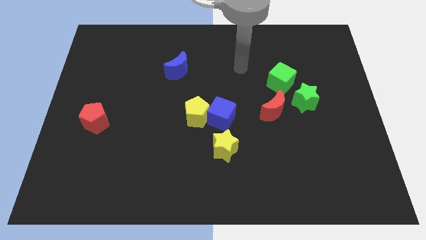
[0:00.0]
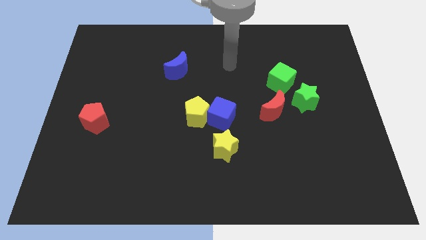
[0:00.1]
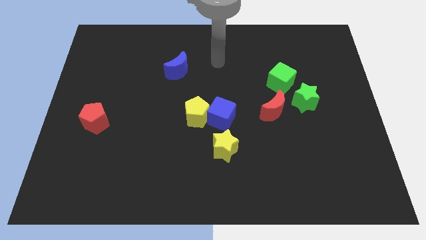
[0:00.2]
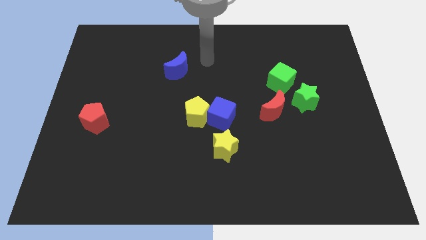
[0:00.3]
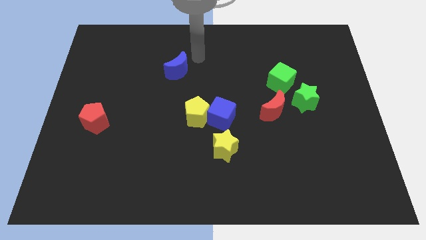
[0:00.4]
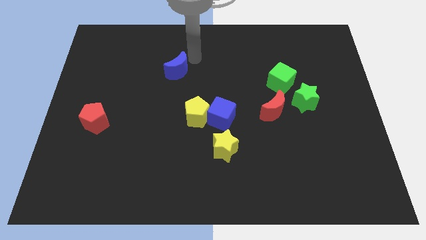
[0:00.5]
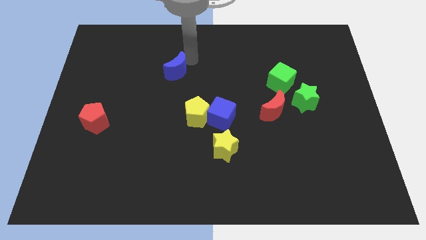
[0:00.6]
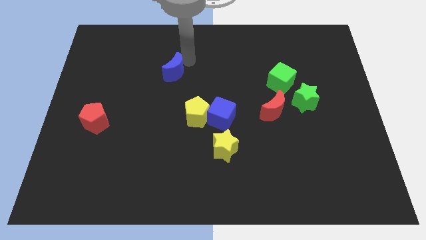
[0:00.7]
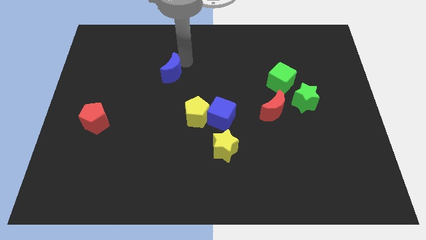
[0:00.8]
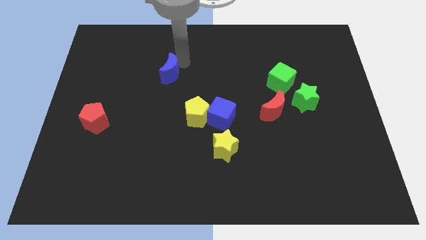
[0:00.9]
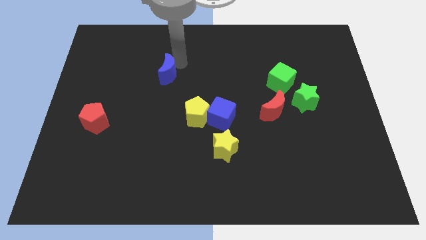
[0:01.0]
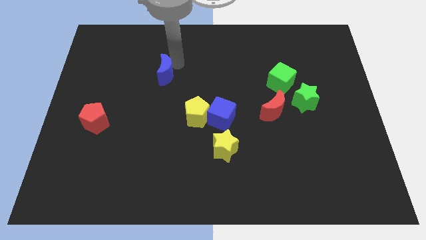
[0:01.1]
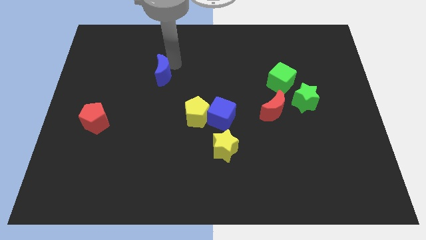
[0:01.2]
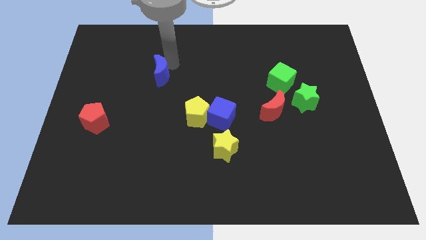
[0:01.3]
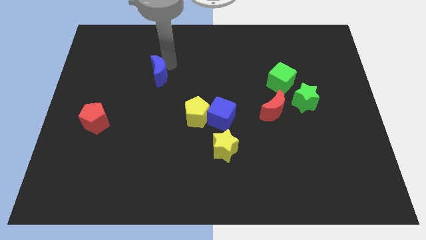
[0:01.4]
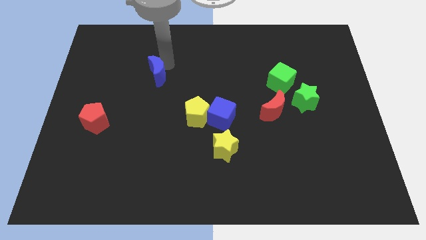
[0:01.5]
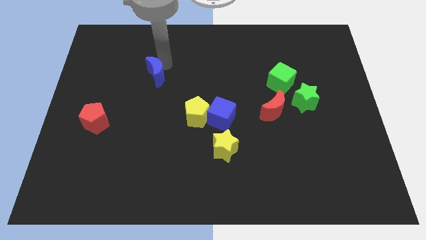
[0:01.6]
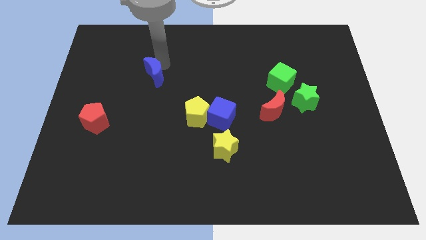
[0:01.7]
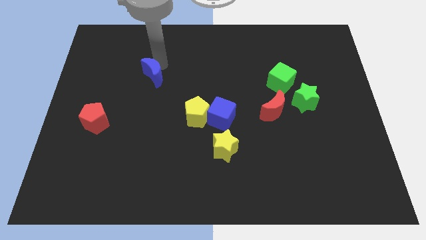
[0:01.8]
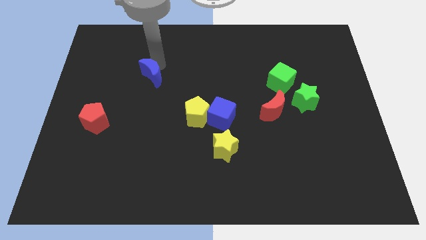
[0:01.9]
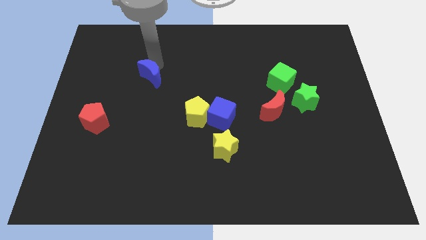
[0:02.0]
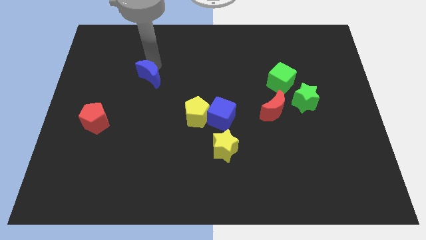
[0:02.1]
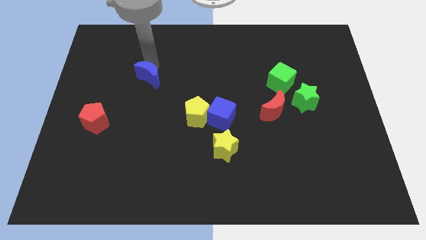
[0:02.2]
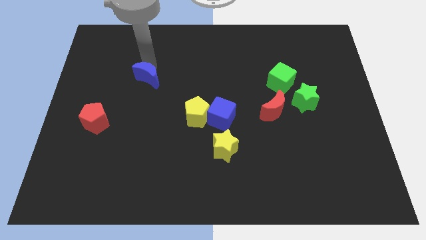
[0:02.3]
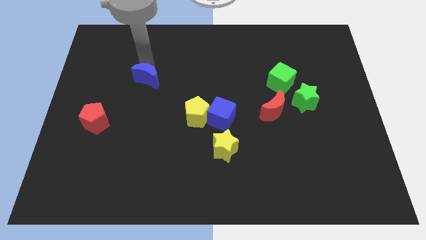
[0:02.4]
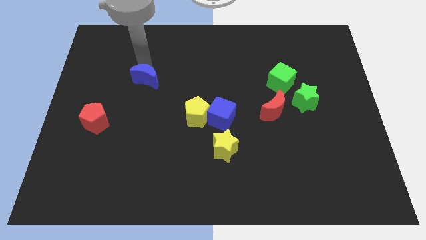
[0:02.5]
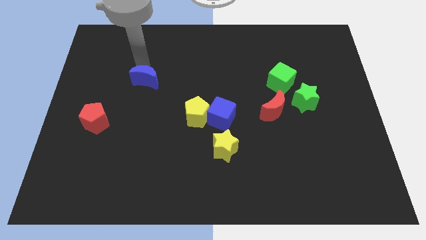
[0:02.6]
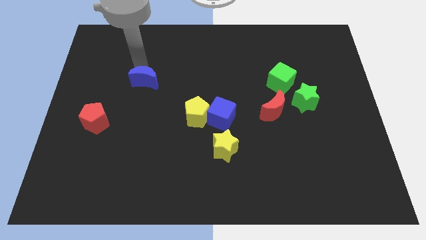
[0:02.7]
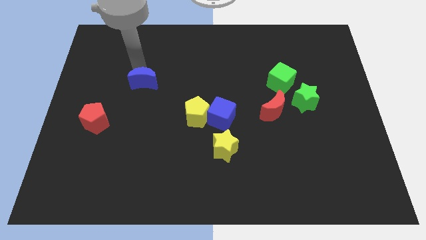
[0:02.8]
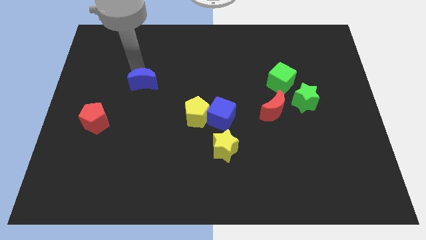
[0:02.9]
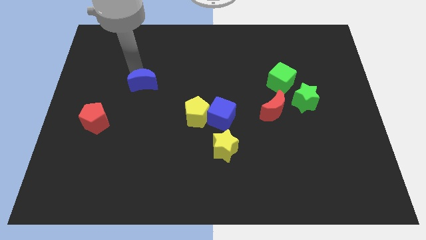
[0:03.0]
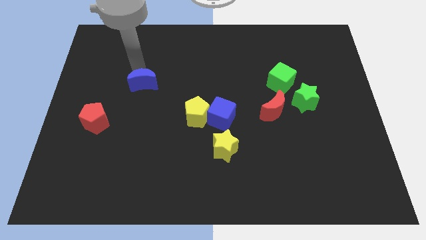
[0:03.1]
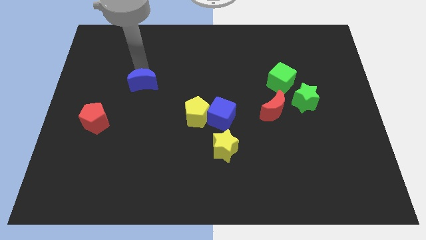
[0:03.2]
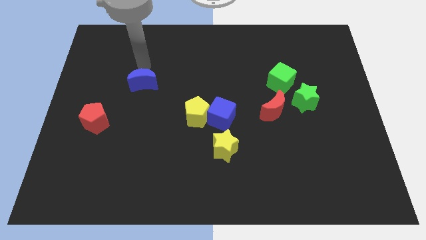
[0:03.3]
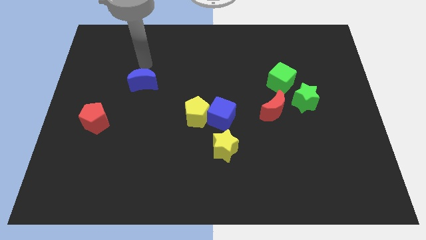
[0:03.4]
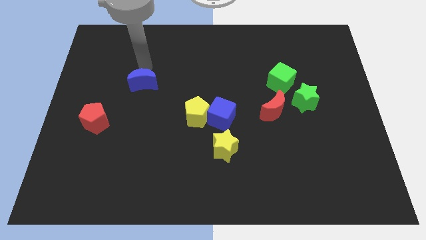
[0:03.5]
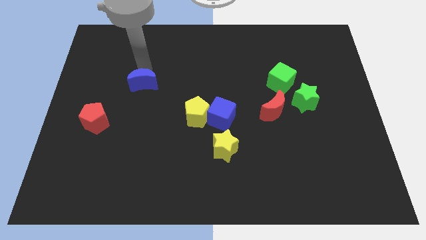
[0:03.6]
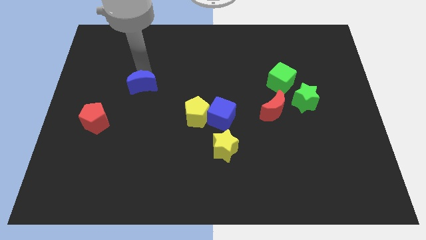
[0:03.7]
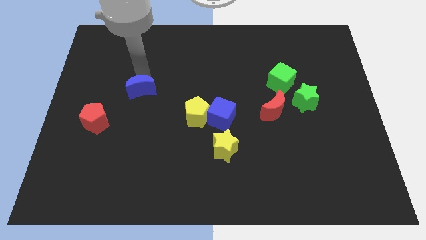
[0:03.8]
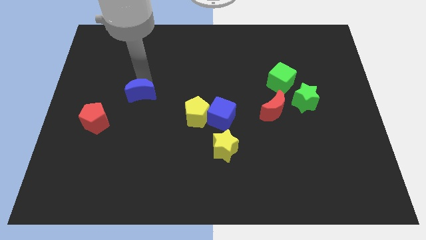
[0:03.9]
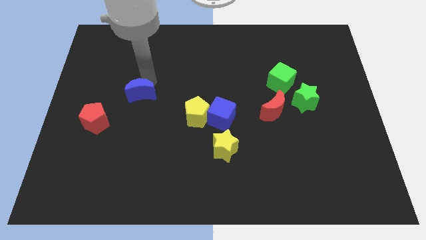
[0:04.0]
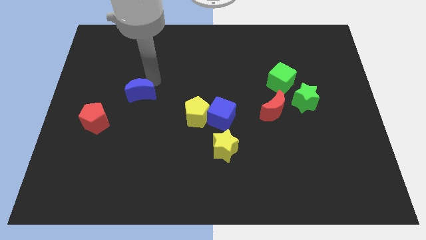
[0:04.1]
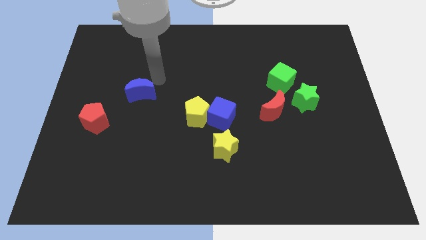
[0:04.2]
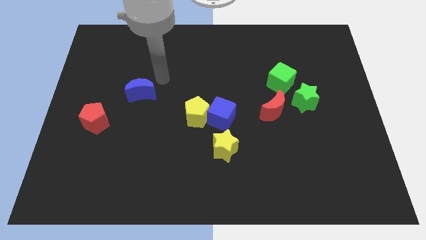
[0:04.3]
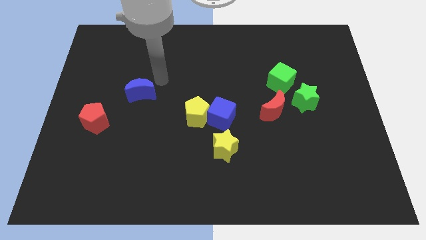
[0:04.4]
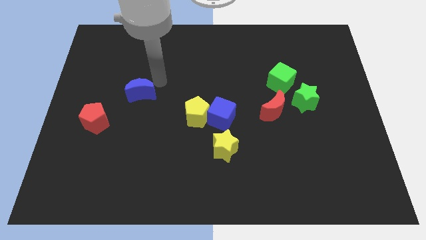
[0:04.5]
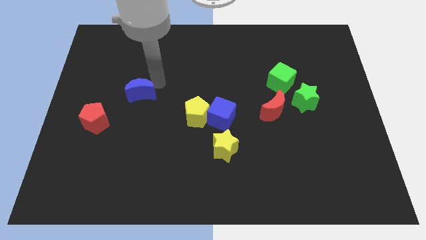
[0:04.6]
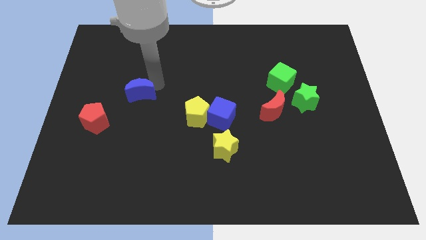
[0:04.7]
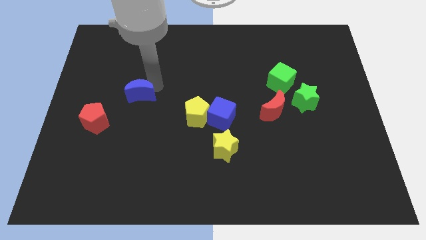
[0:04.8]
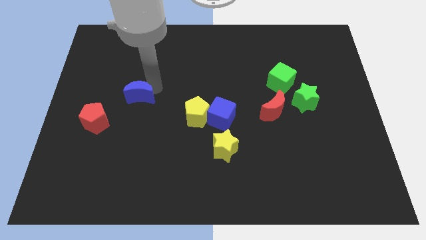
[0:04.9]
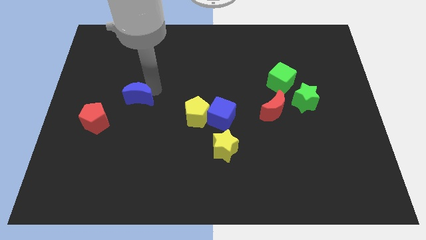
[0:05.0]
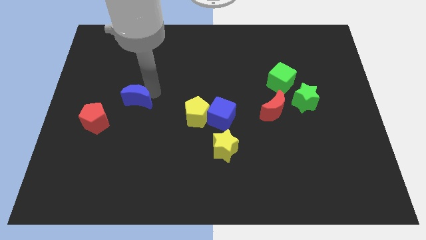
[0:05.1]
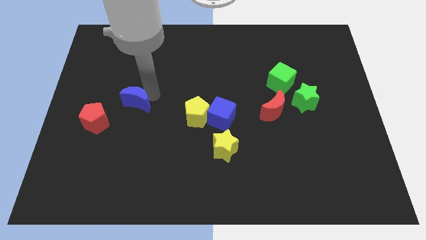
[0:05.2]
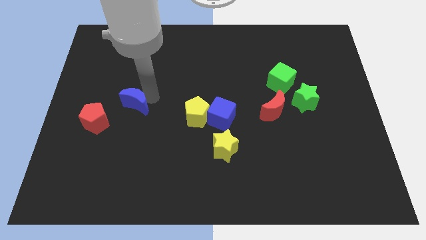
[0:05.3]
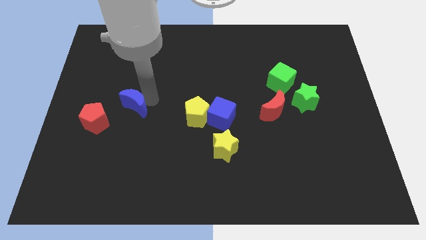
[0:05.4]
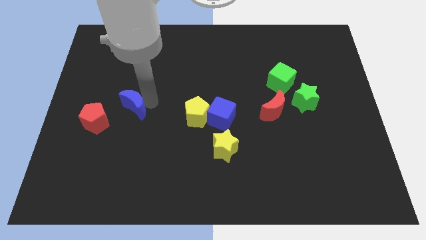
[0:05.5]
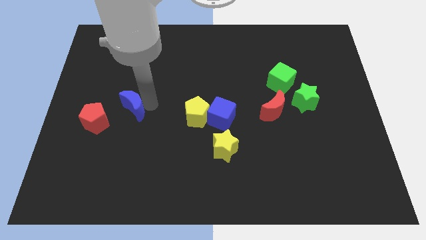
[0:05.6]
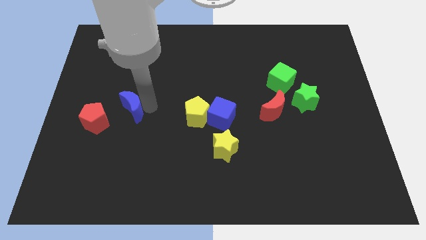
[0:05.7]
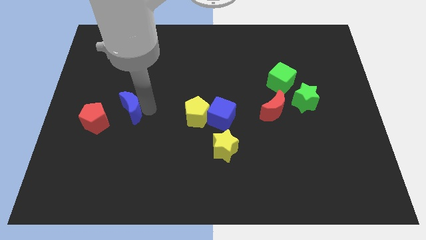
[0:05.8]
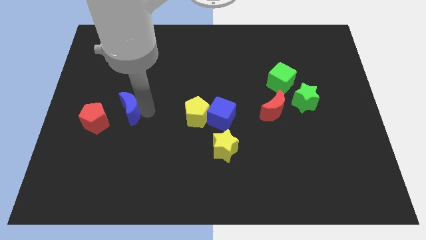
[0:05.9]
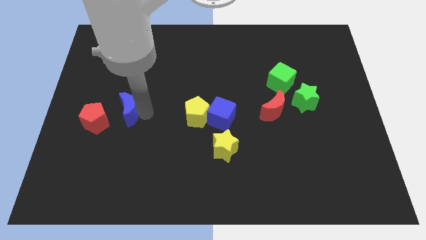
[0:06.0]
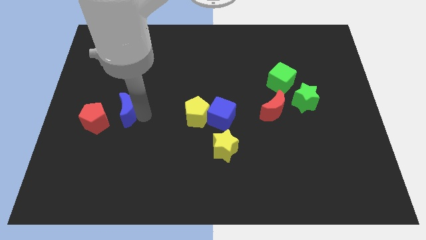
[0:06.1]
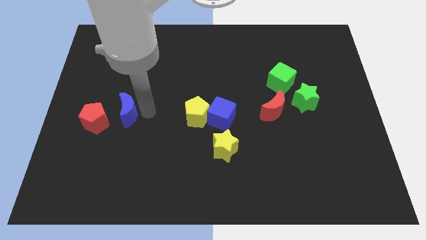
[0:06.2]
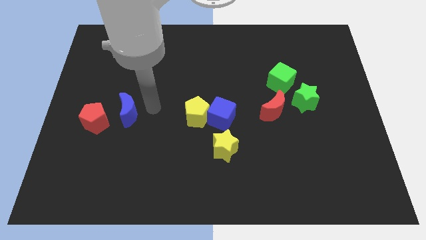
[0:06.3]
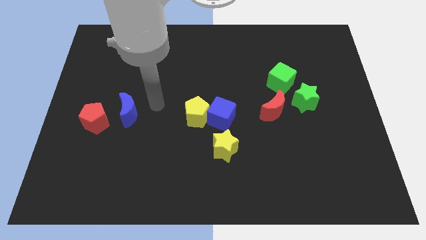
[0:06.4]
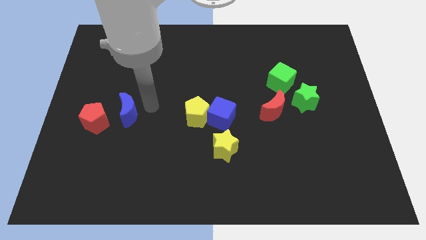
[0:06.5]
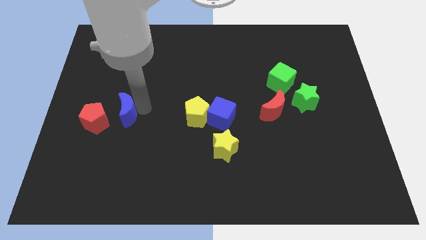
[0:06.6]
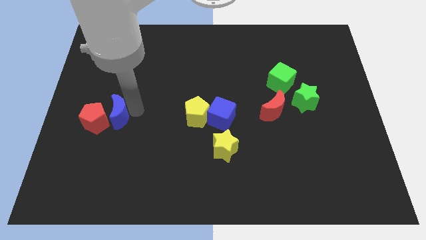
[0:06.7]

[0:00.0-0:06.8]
slide the blue moon to the red pentagon
